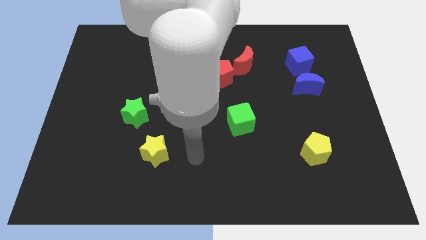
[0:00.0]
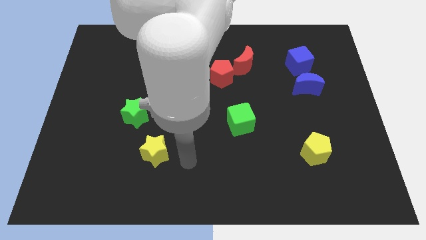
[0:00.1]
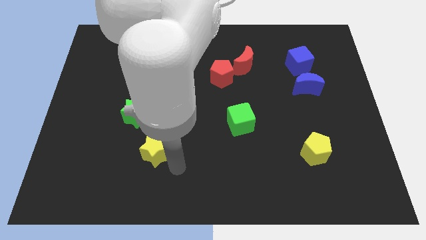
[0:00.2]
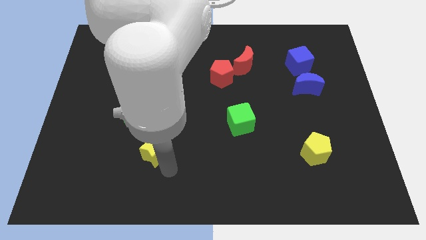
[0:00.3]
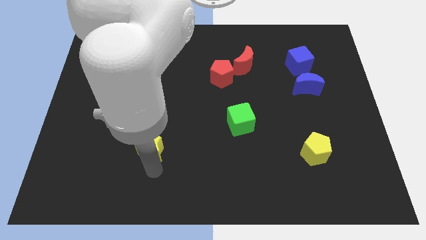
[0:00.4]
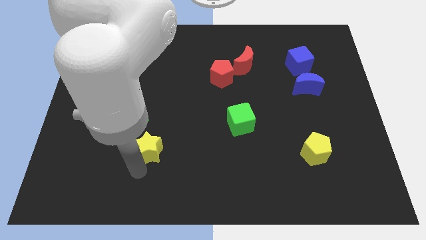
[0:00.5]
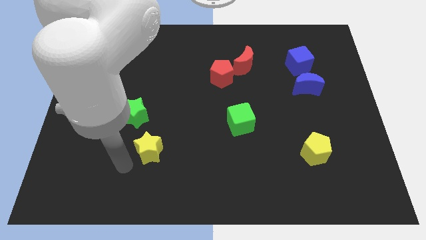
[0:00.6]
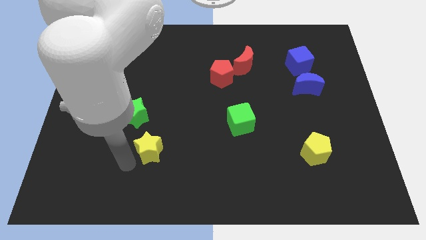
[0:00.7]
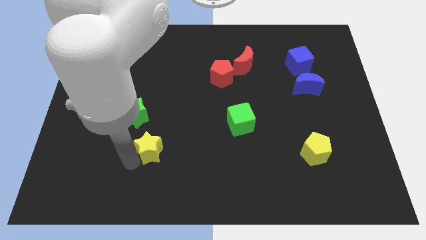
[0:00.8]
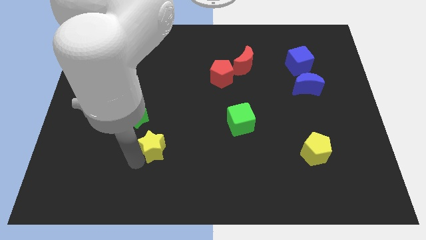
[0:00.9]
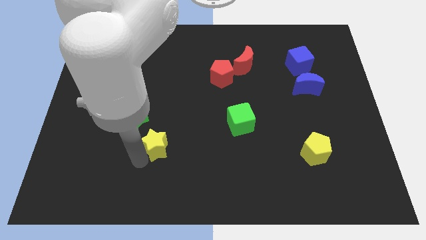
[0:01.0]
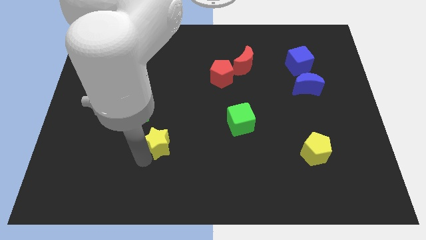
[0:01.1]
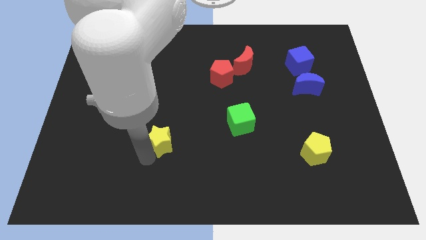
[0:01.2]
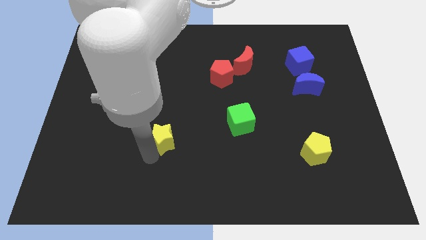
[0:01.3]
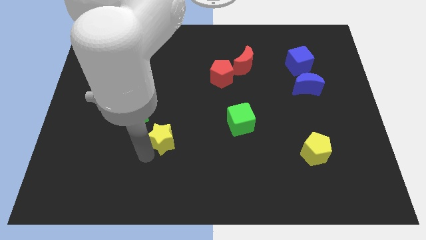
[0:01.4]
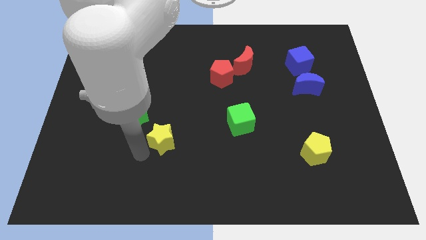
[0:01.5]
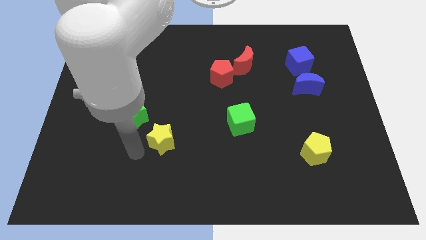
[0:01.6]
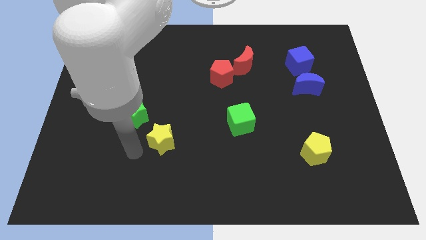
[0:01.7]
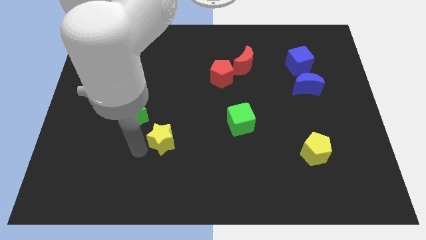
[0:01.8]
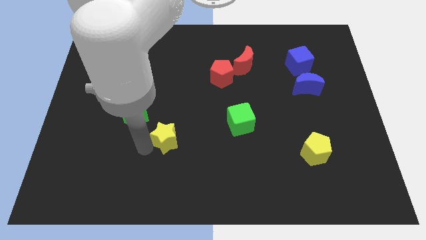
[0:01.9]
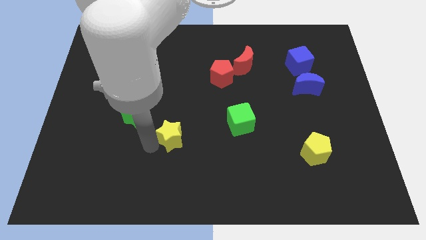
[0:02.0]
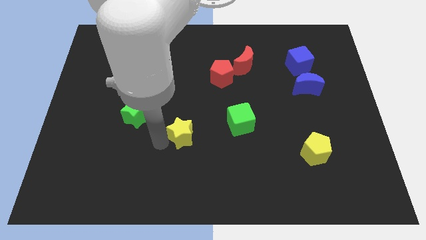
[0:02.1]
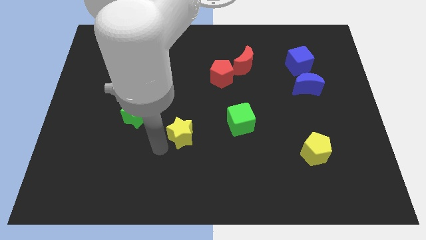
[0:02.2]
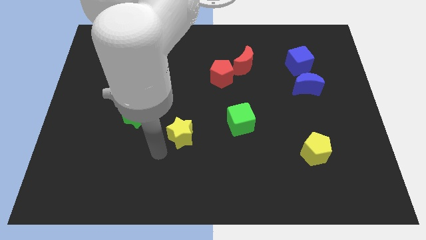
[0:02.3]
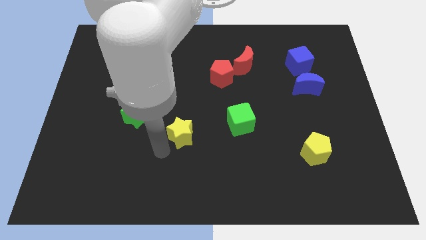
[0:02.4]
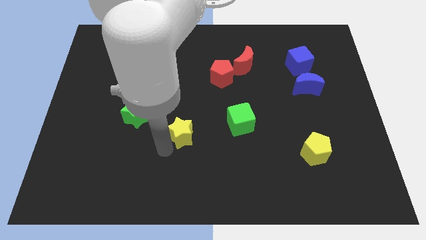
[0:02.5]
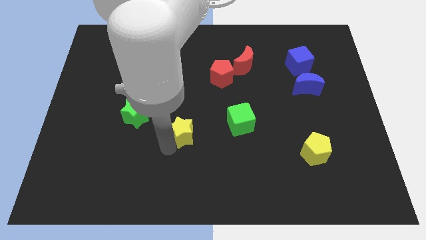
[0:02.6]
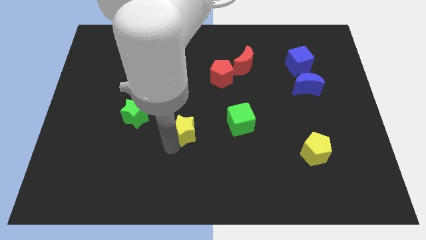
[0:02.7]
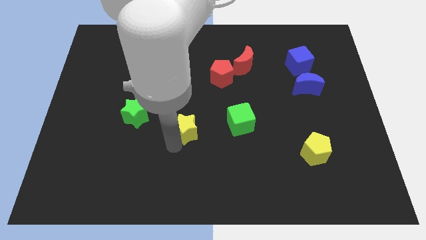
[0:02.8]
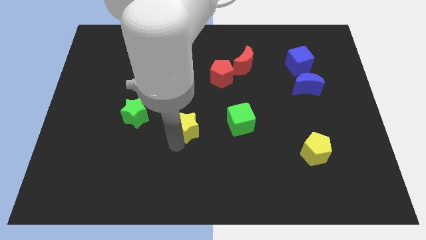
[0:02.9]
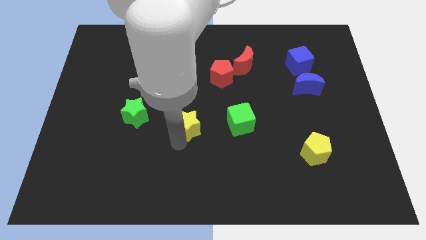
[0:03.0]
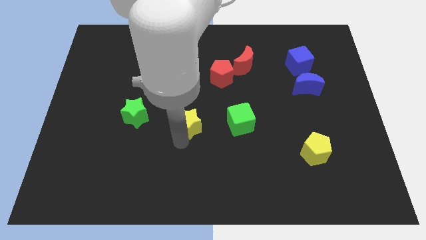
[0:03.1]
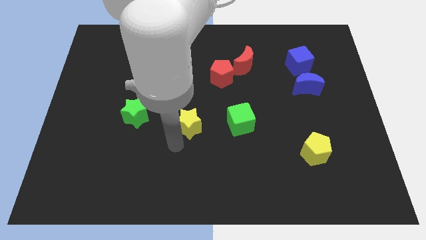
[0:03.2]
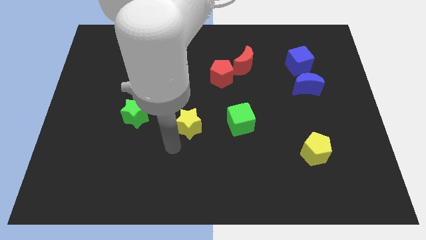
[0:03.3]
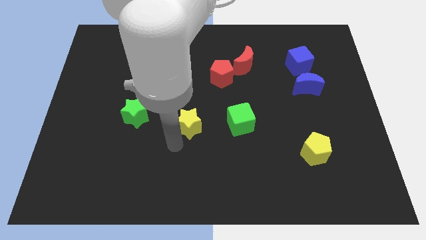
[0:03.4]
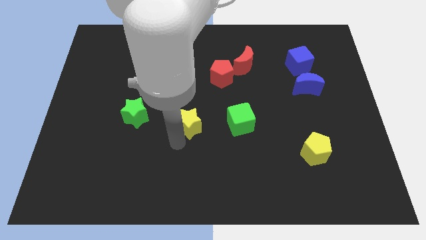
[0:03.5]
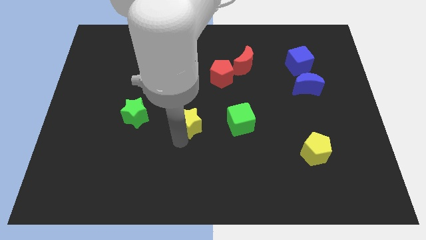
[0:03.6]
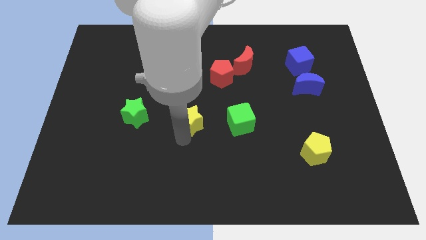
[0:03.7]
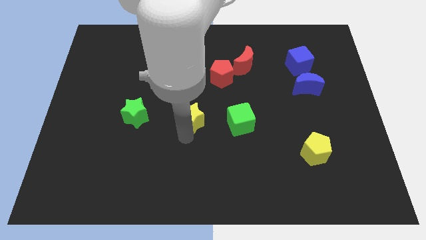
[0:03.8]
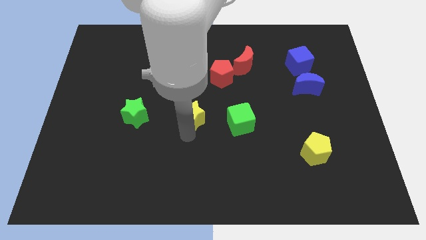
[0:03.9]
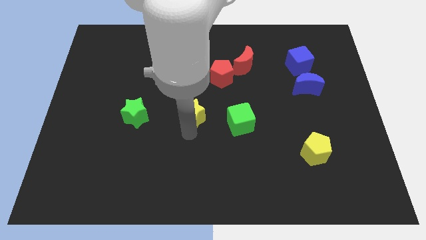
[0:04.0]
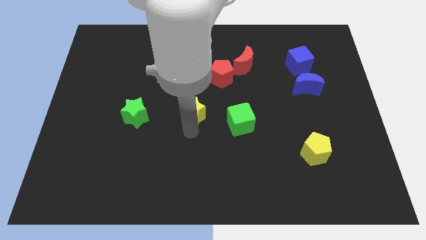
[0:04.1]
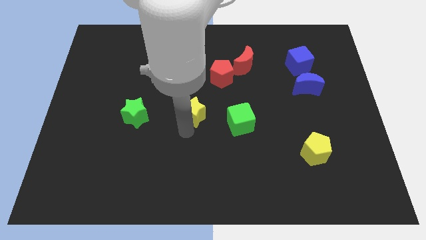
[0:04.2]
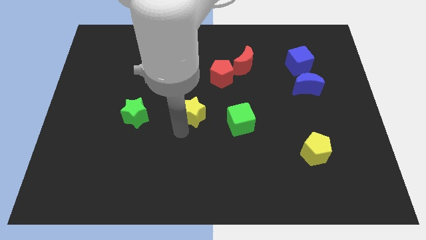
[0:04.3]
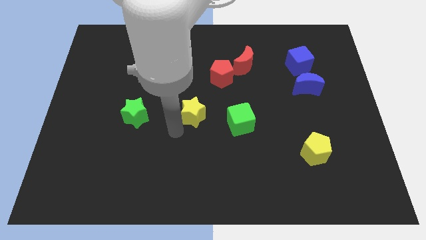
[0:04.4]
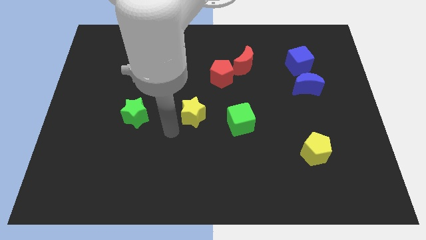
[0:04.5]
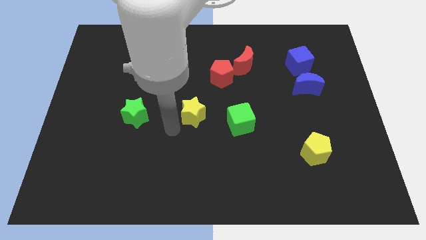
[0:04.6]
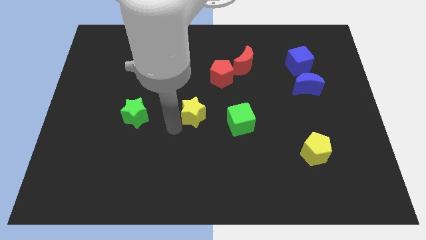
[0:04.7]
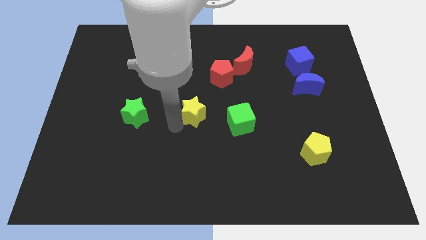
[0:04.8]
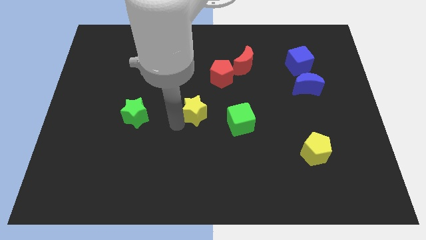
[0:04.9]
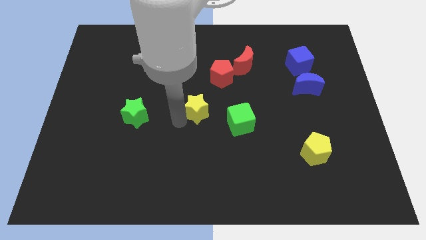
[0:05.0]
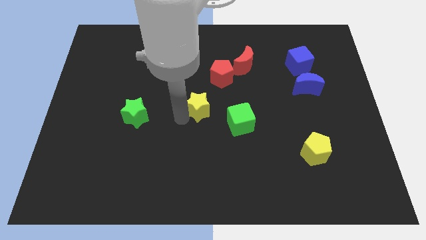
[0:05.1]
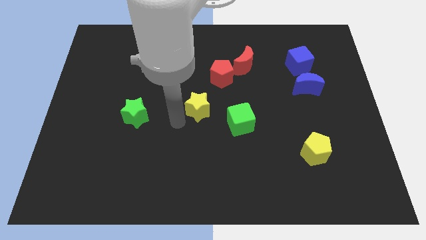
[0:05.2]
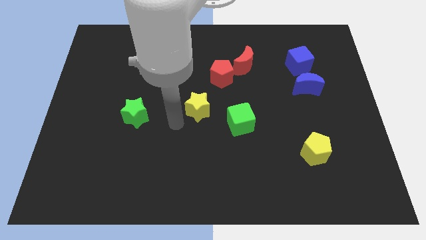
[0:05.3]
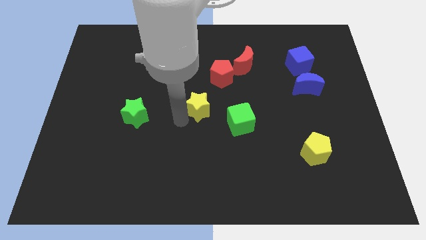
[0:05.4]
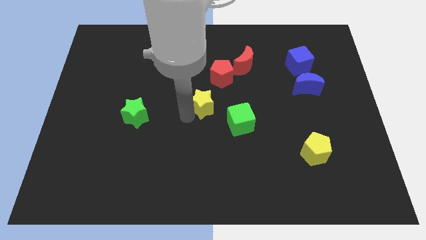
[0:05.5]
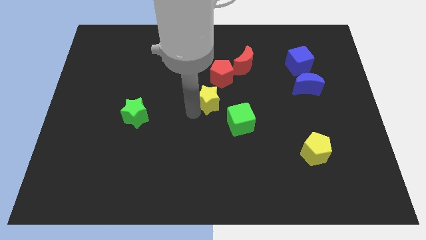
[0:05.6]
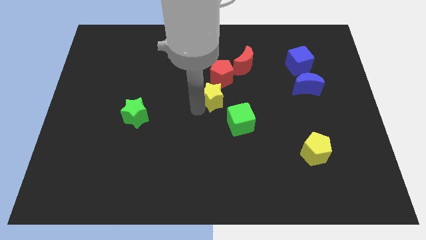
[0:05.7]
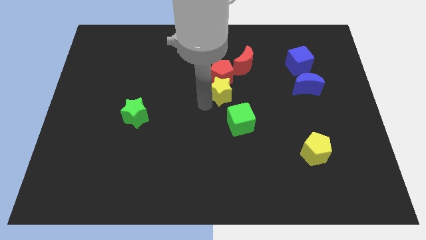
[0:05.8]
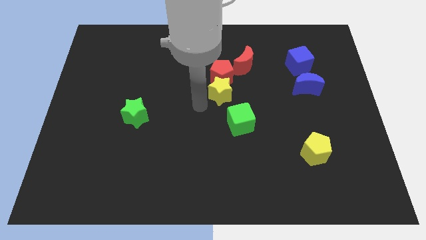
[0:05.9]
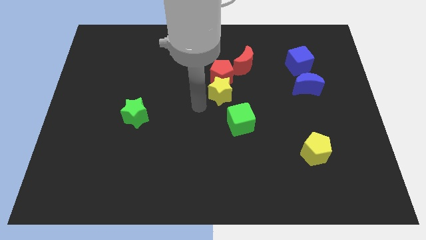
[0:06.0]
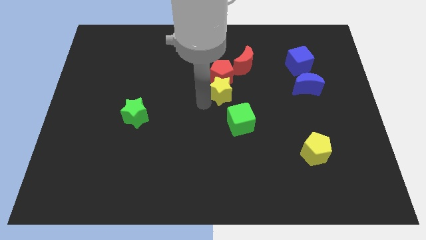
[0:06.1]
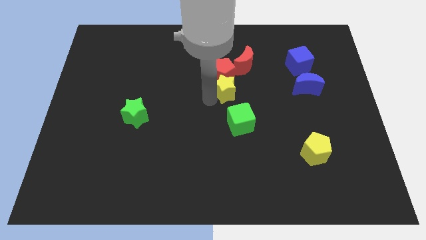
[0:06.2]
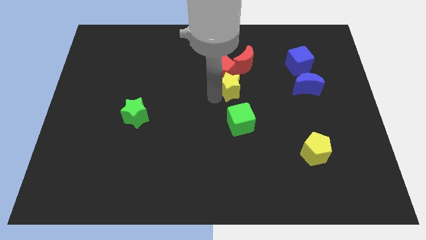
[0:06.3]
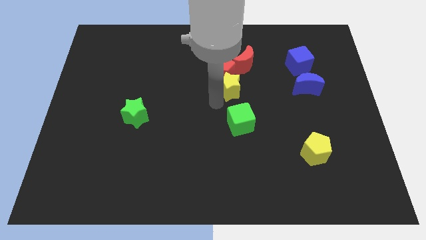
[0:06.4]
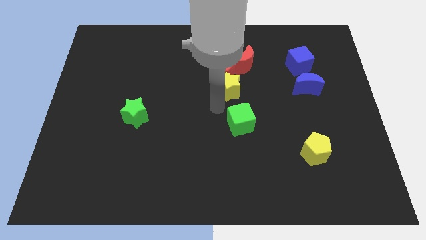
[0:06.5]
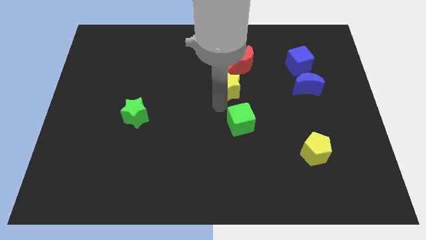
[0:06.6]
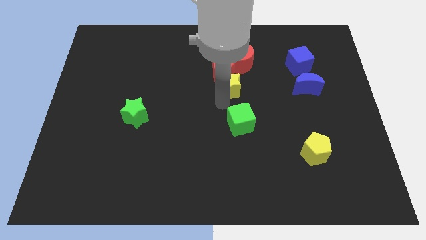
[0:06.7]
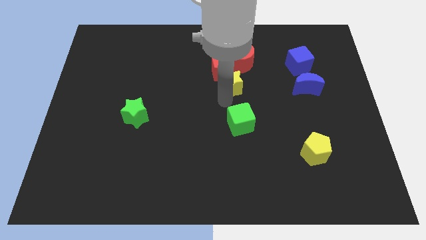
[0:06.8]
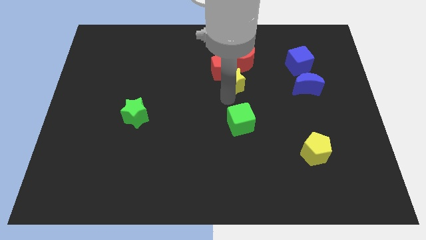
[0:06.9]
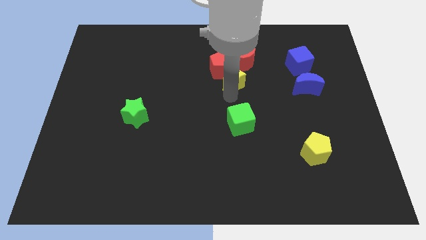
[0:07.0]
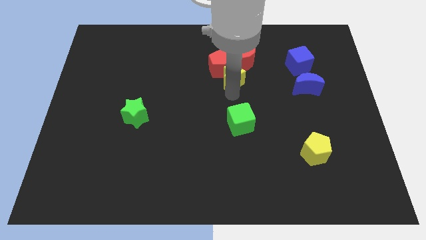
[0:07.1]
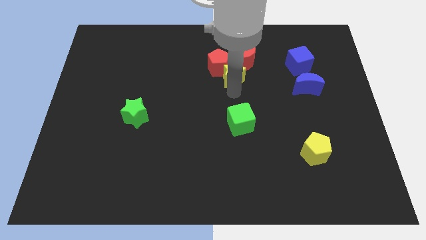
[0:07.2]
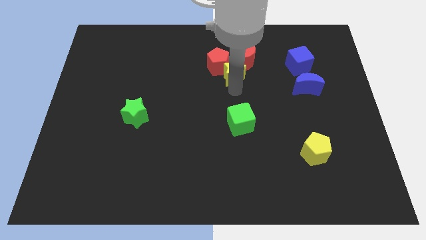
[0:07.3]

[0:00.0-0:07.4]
push the yellow star next to the red moon

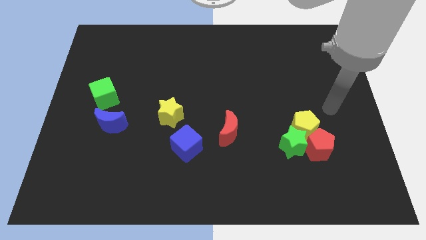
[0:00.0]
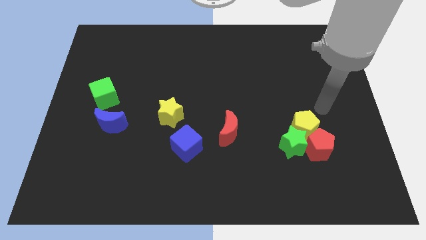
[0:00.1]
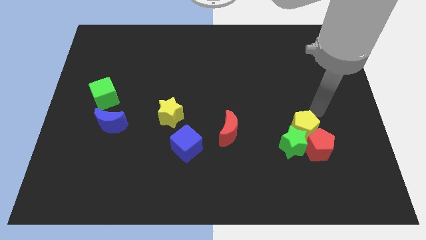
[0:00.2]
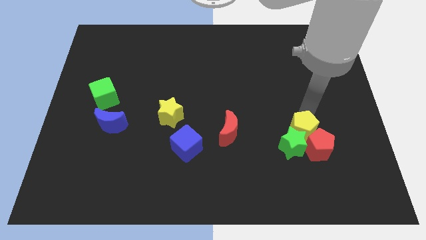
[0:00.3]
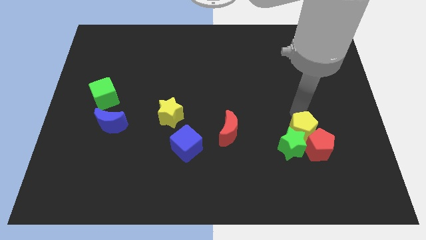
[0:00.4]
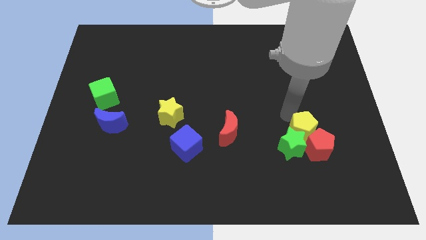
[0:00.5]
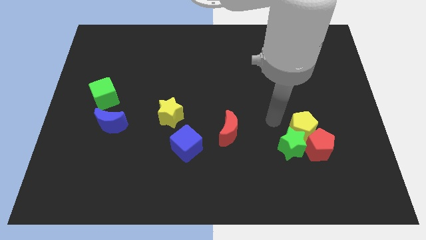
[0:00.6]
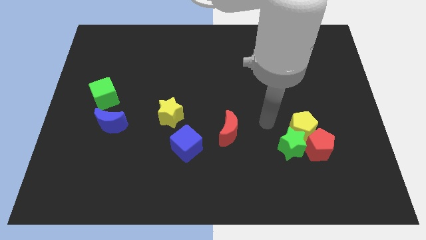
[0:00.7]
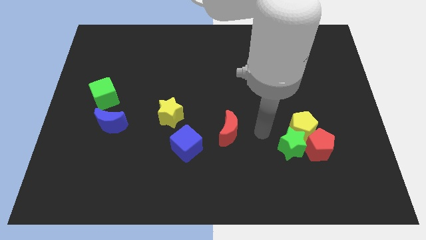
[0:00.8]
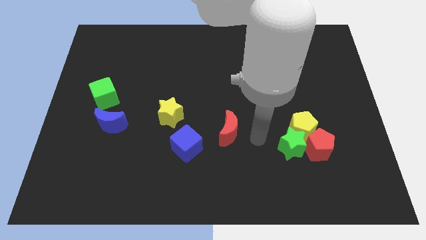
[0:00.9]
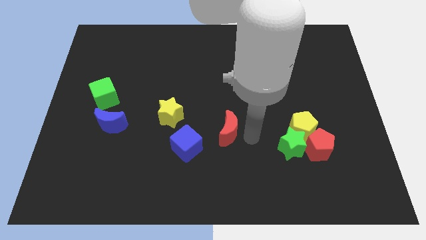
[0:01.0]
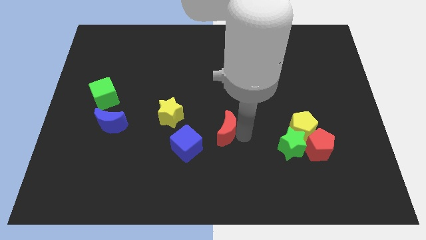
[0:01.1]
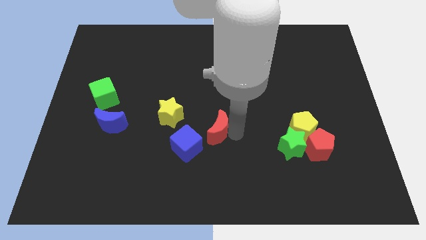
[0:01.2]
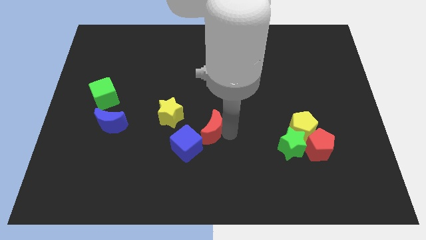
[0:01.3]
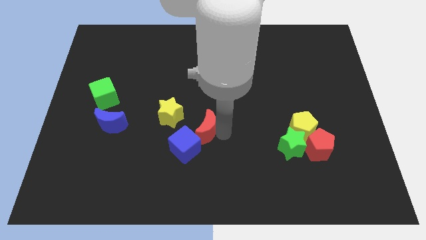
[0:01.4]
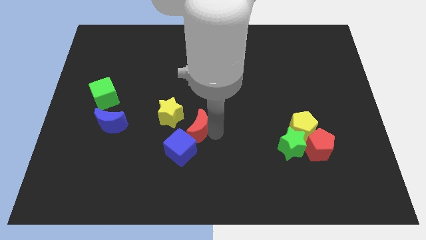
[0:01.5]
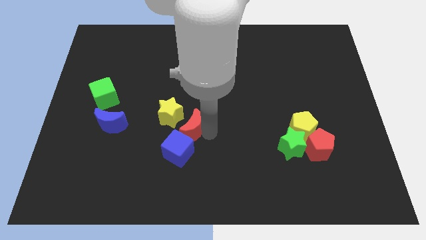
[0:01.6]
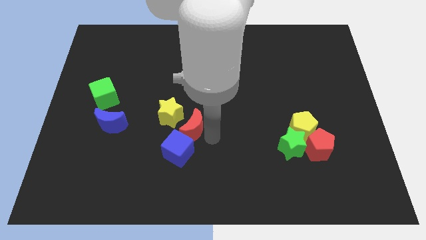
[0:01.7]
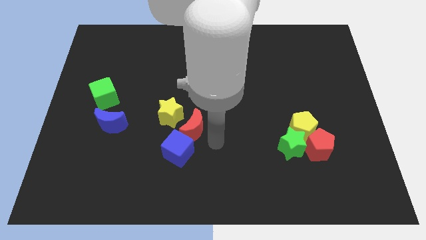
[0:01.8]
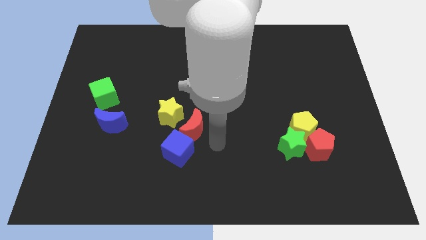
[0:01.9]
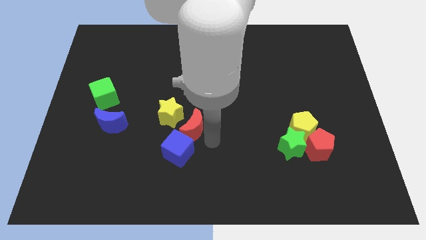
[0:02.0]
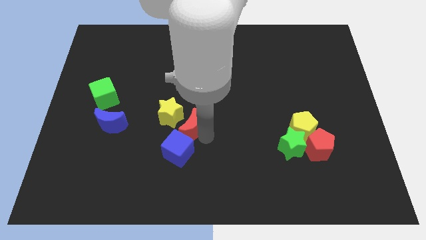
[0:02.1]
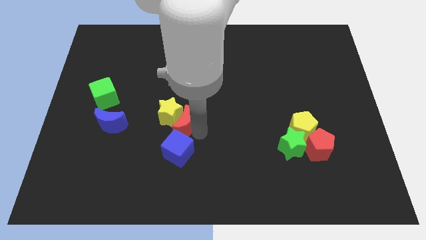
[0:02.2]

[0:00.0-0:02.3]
move the red moon to the yellow star
